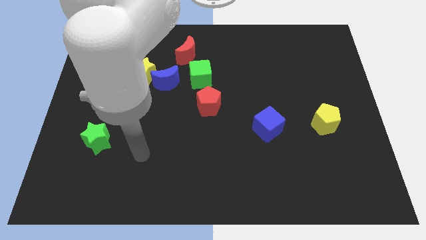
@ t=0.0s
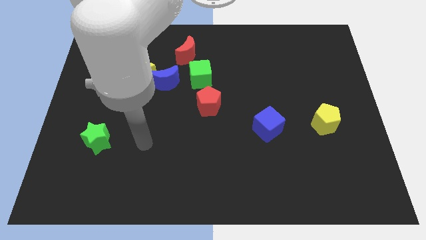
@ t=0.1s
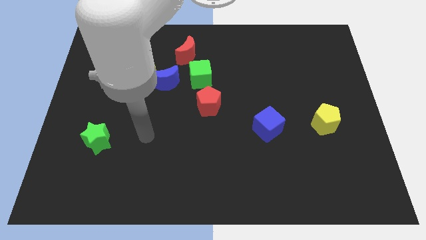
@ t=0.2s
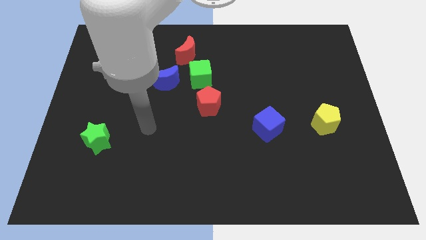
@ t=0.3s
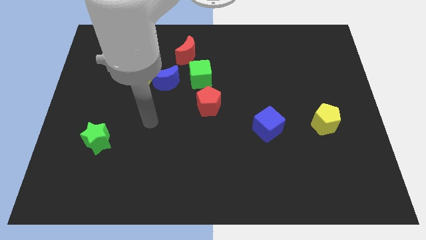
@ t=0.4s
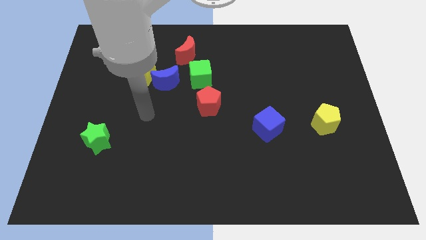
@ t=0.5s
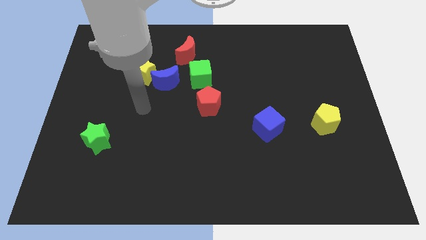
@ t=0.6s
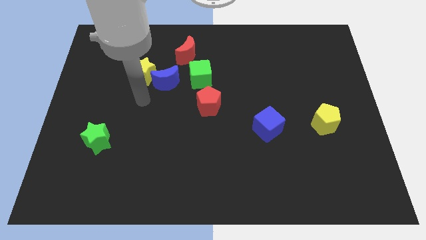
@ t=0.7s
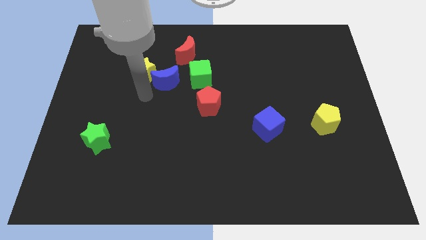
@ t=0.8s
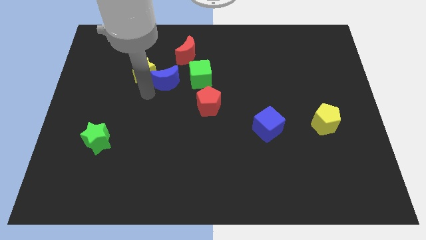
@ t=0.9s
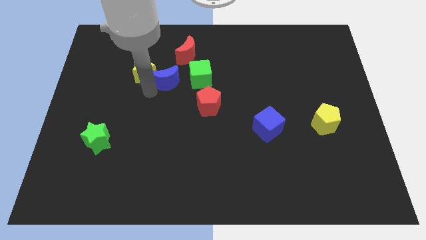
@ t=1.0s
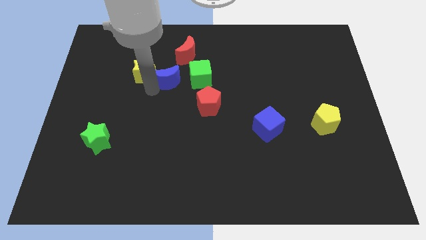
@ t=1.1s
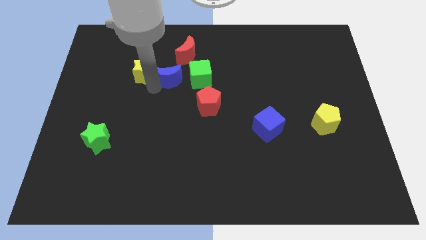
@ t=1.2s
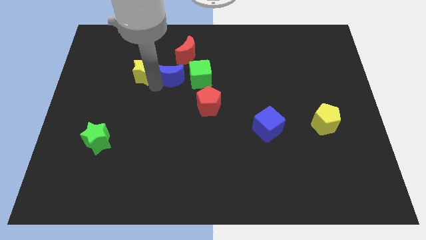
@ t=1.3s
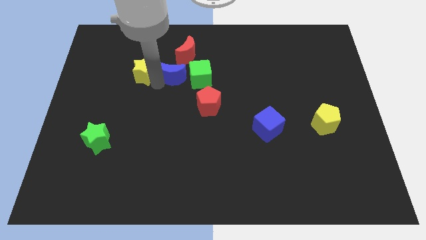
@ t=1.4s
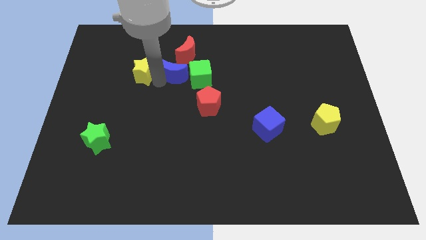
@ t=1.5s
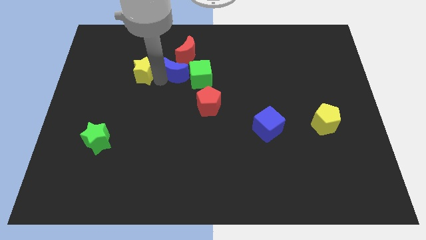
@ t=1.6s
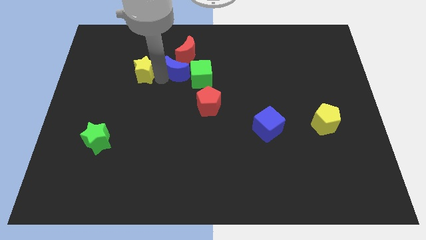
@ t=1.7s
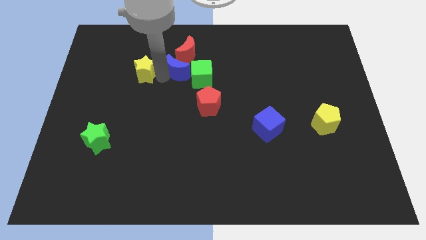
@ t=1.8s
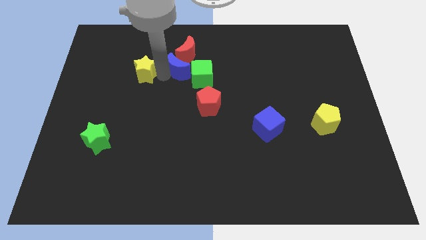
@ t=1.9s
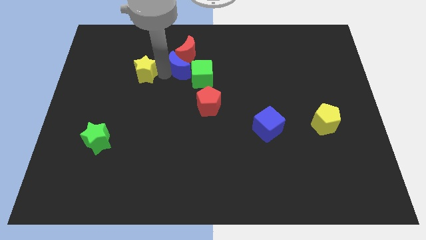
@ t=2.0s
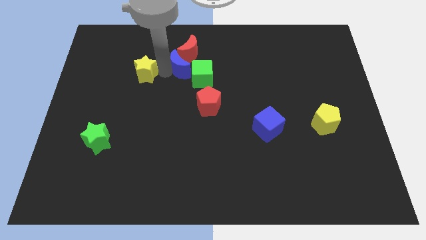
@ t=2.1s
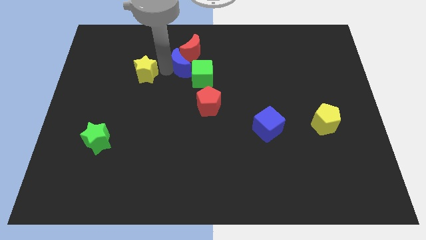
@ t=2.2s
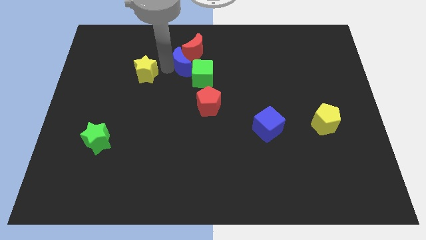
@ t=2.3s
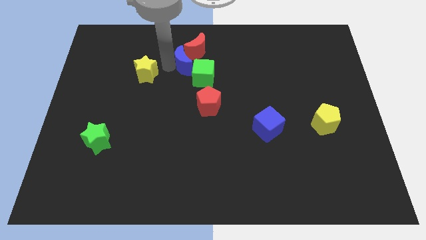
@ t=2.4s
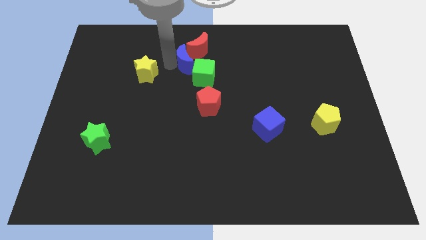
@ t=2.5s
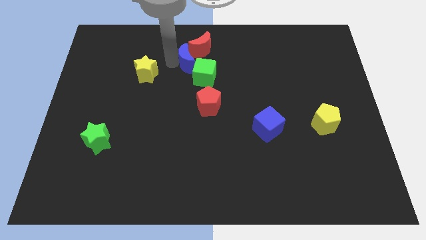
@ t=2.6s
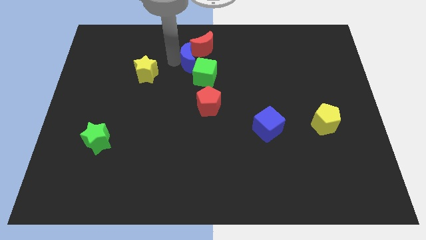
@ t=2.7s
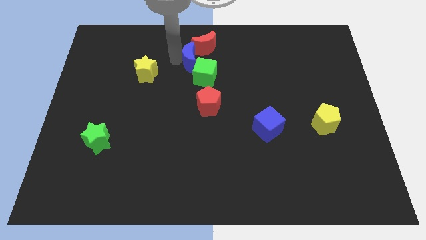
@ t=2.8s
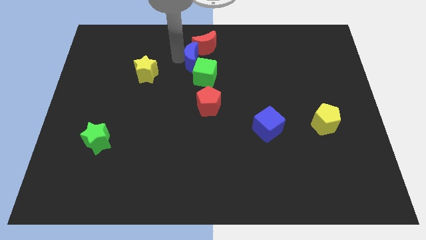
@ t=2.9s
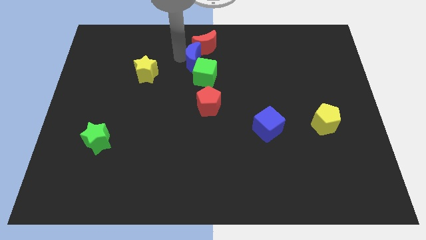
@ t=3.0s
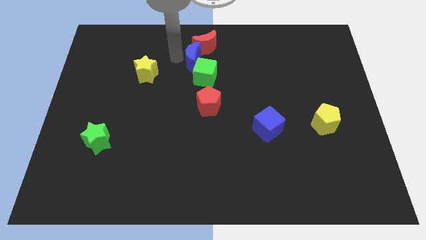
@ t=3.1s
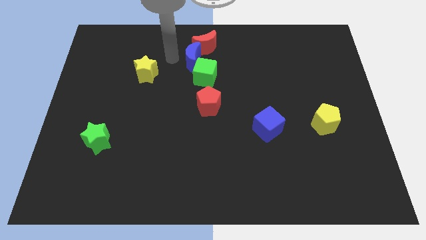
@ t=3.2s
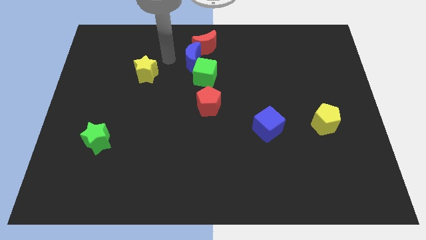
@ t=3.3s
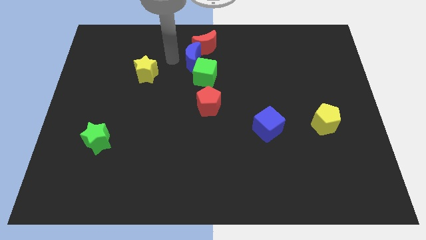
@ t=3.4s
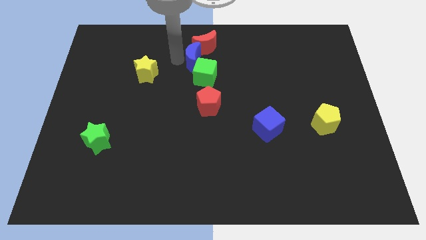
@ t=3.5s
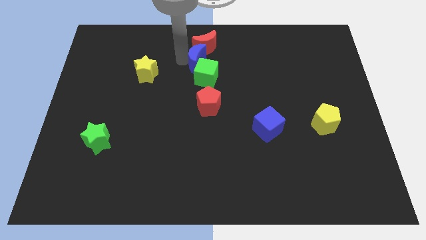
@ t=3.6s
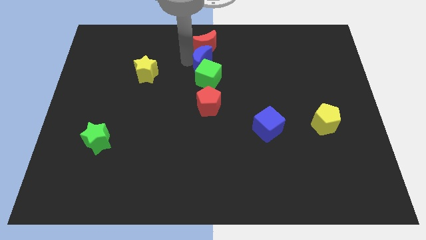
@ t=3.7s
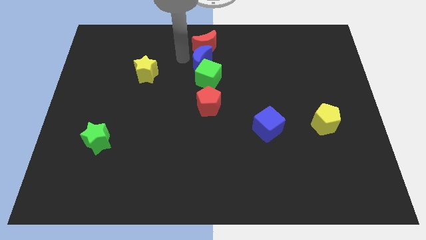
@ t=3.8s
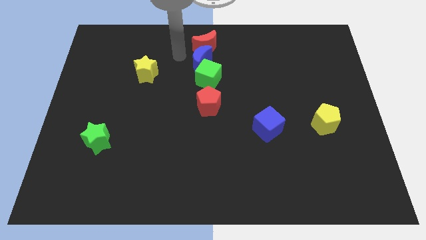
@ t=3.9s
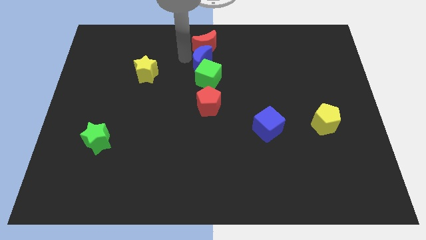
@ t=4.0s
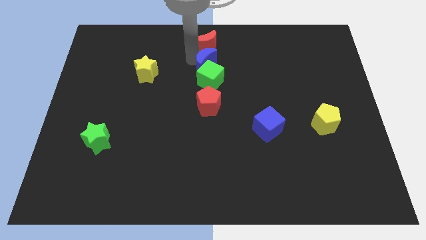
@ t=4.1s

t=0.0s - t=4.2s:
slightly slide the blue moon to the right

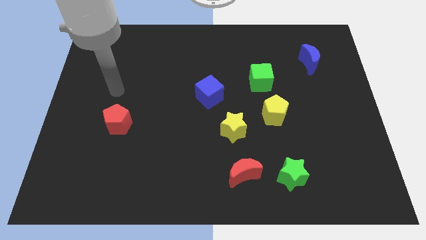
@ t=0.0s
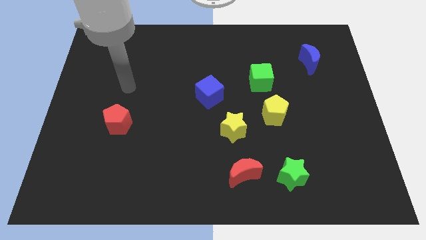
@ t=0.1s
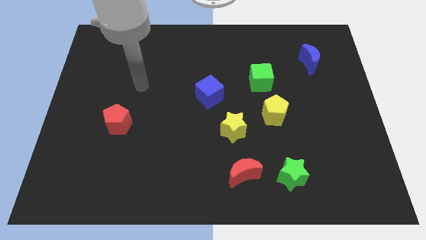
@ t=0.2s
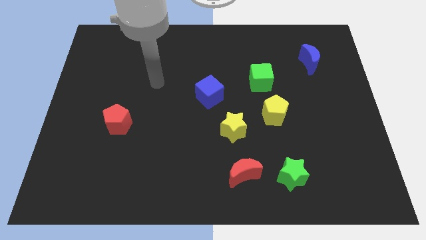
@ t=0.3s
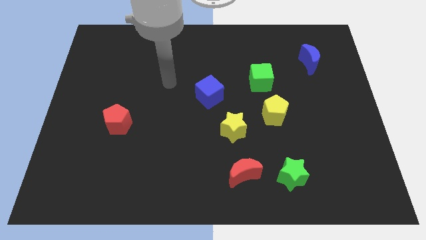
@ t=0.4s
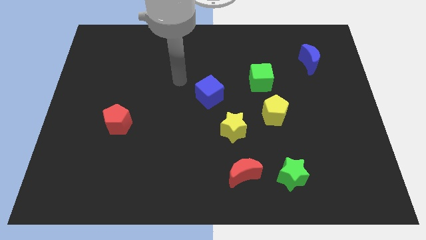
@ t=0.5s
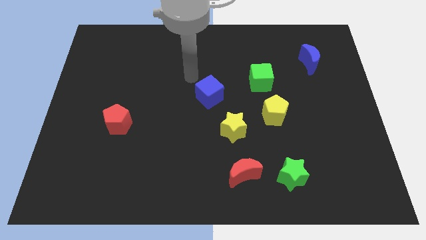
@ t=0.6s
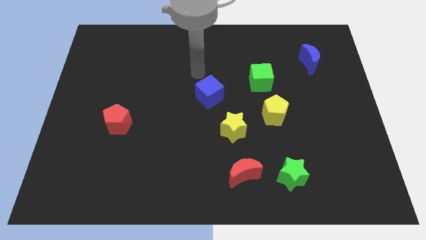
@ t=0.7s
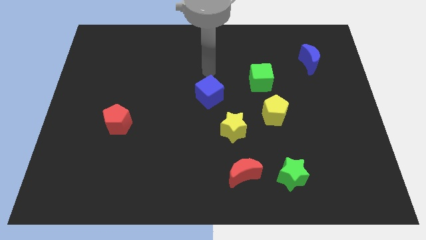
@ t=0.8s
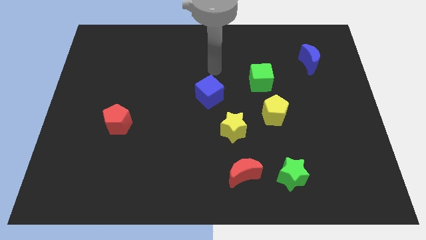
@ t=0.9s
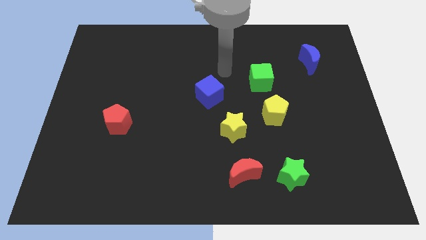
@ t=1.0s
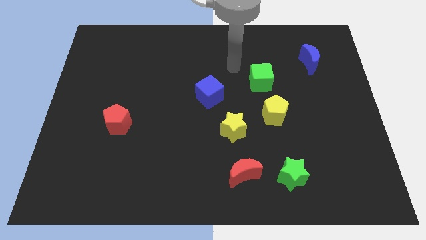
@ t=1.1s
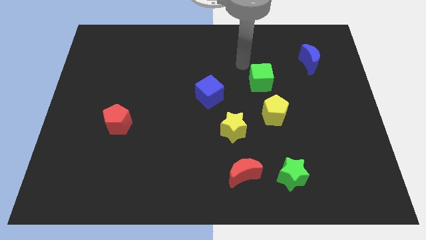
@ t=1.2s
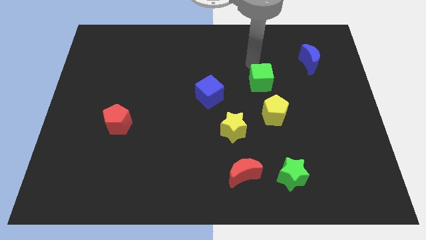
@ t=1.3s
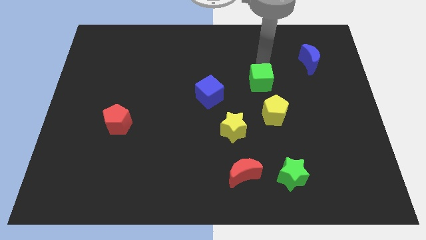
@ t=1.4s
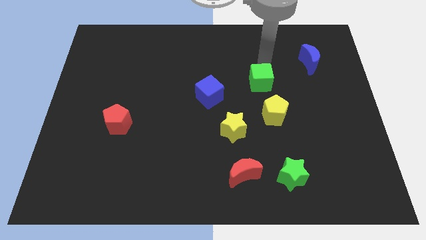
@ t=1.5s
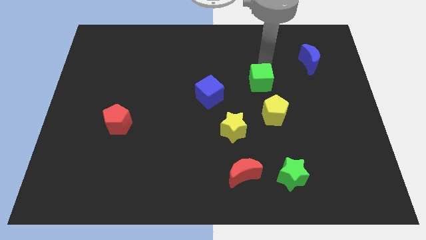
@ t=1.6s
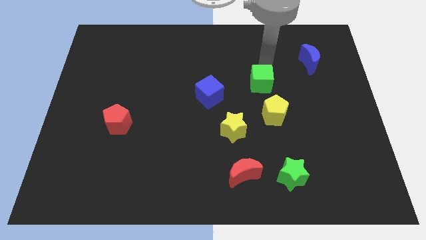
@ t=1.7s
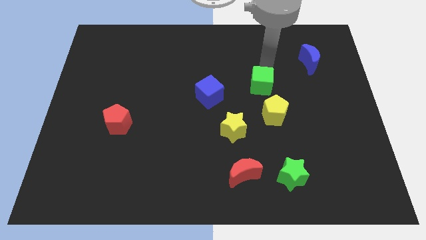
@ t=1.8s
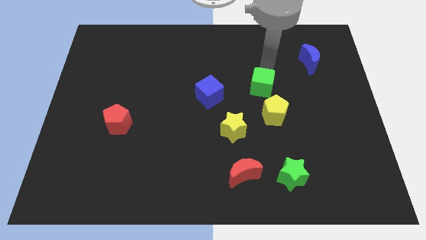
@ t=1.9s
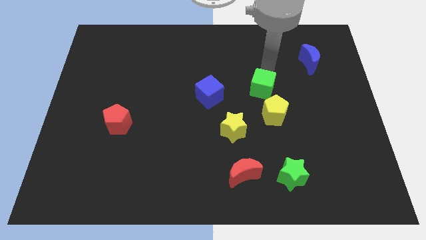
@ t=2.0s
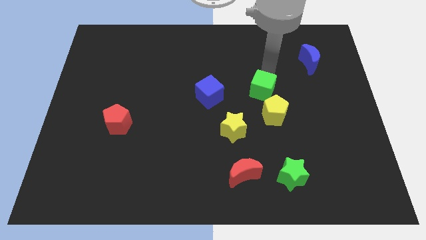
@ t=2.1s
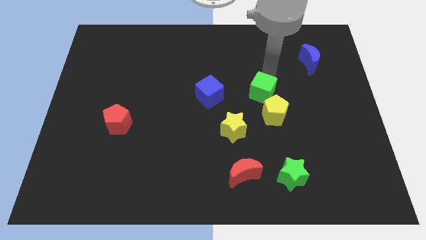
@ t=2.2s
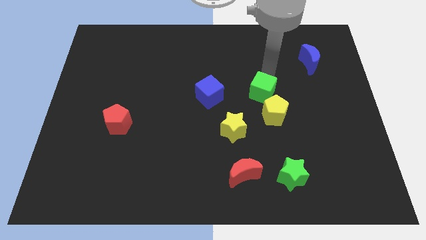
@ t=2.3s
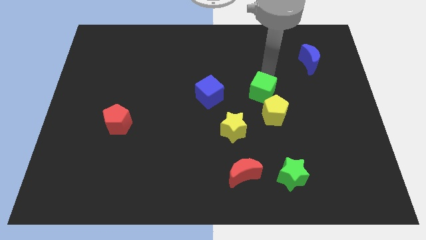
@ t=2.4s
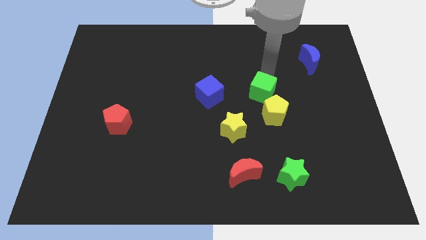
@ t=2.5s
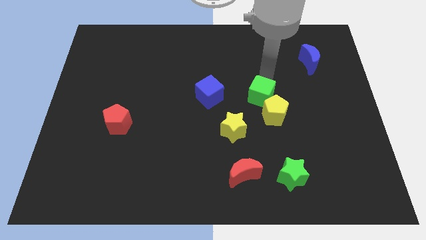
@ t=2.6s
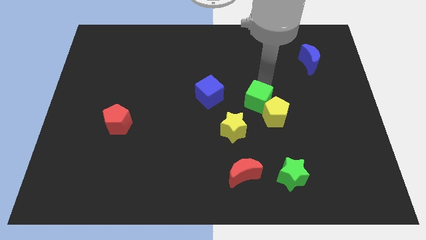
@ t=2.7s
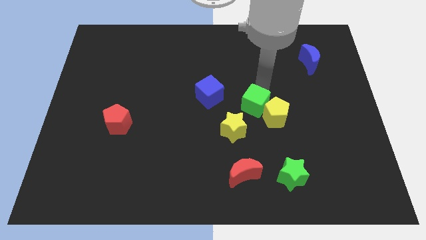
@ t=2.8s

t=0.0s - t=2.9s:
slightly push the green cube downwards

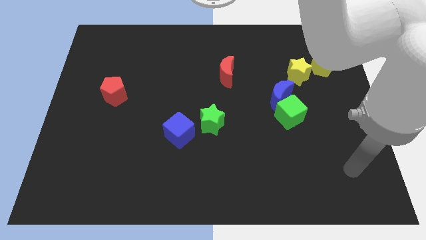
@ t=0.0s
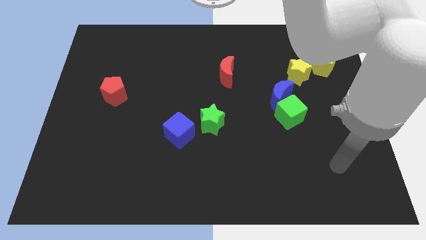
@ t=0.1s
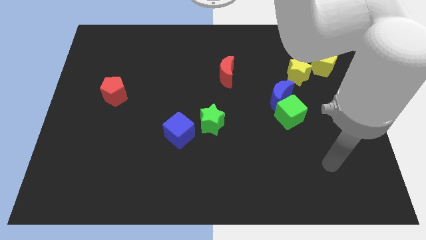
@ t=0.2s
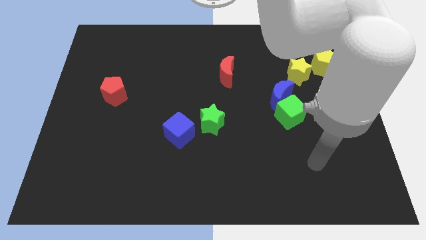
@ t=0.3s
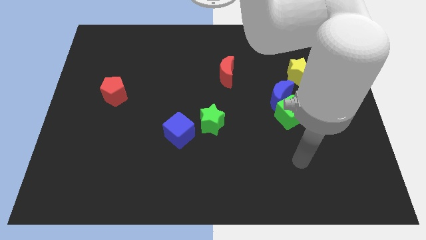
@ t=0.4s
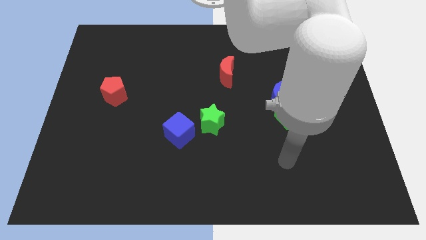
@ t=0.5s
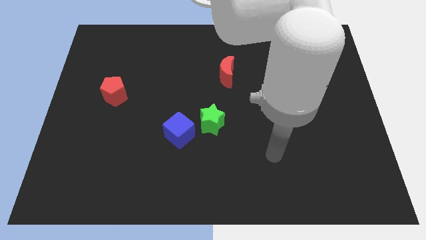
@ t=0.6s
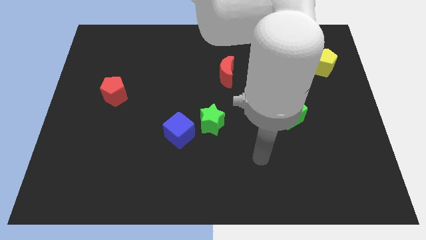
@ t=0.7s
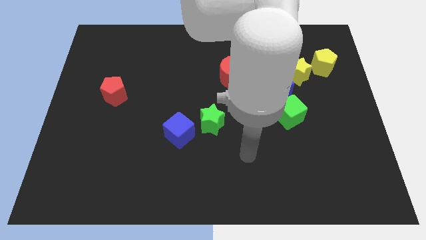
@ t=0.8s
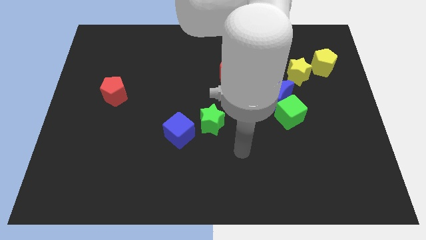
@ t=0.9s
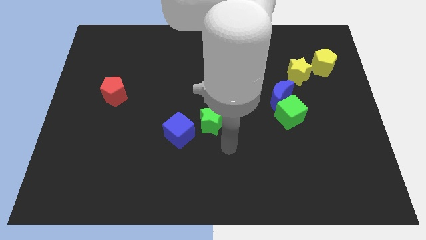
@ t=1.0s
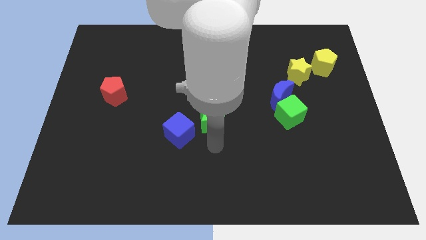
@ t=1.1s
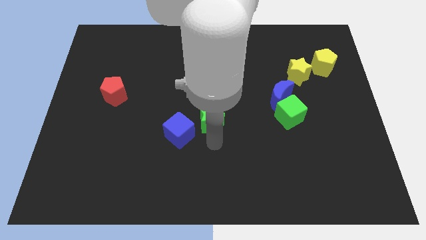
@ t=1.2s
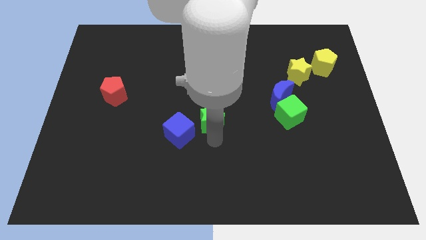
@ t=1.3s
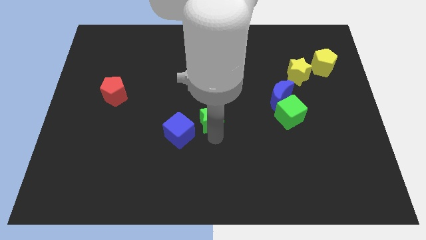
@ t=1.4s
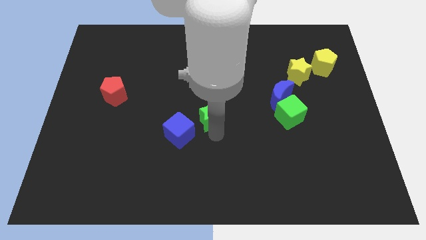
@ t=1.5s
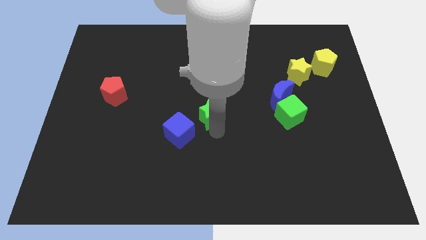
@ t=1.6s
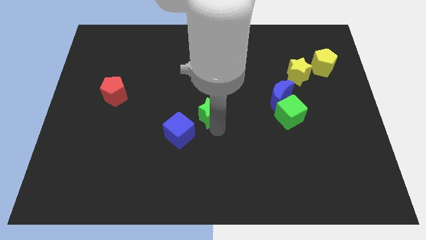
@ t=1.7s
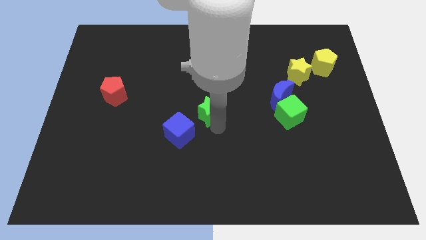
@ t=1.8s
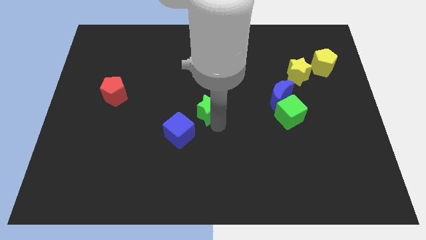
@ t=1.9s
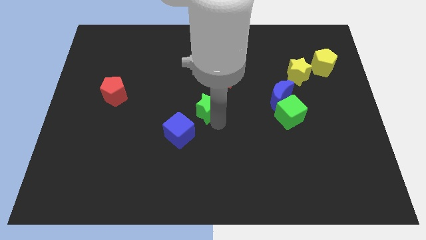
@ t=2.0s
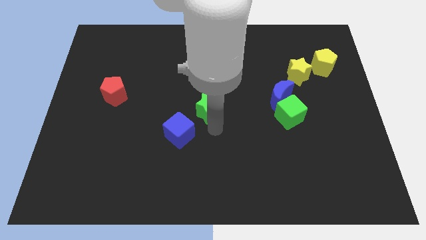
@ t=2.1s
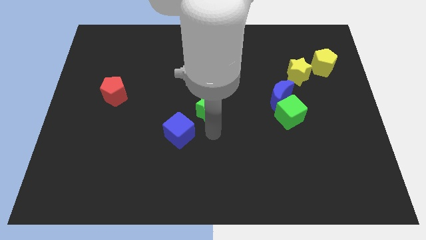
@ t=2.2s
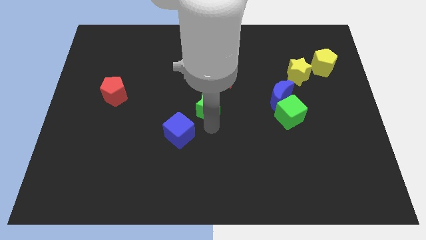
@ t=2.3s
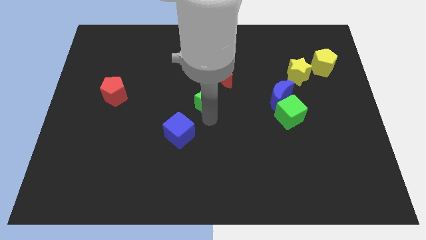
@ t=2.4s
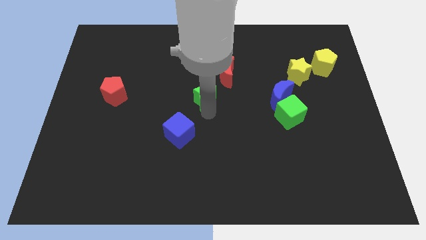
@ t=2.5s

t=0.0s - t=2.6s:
slightly slide the green star up
